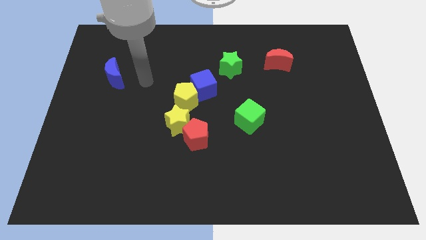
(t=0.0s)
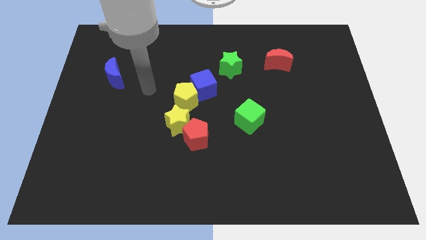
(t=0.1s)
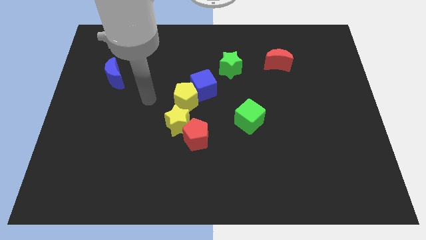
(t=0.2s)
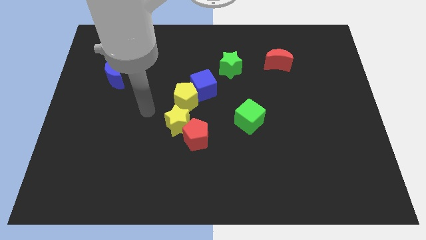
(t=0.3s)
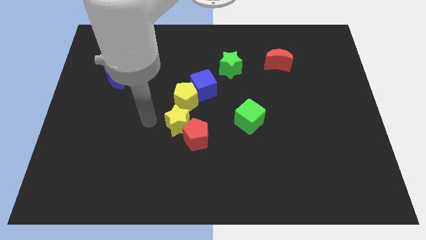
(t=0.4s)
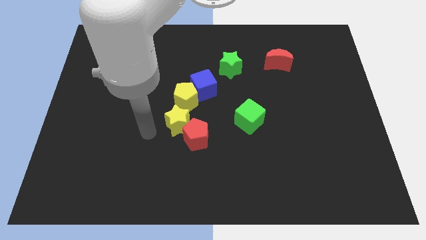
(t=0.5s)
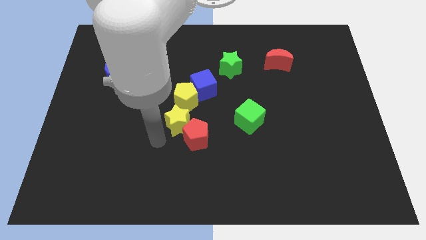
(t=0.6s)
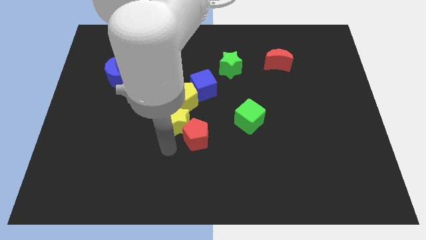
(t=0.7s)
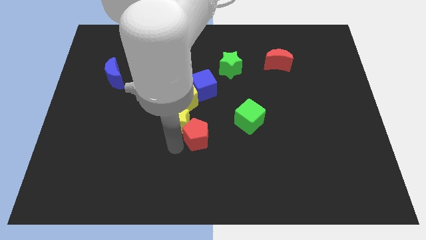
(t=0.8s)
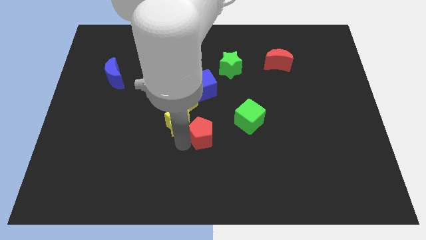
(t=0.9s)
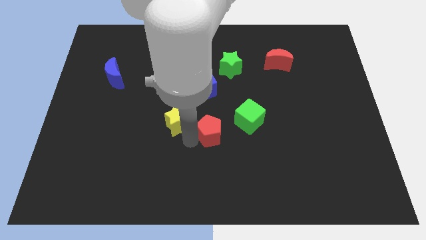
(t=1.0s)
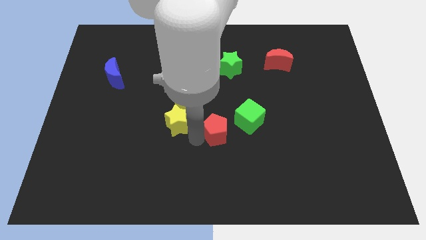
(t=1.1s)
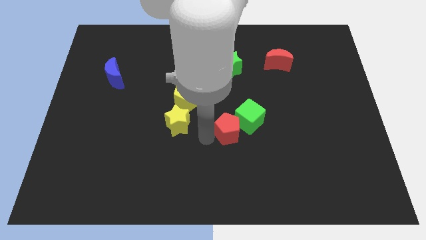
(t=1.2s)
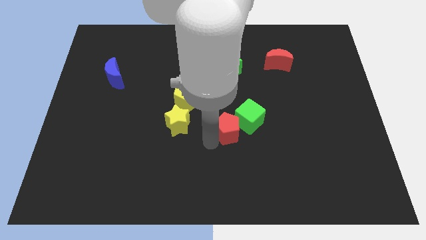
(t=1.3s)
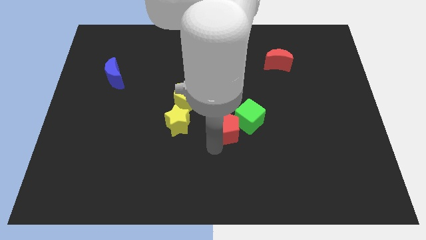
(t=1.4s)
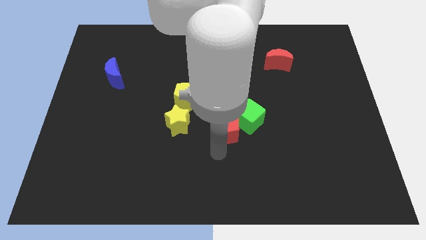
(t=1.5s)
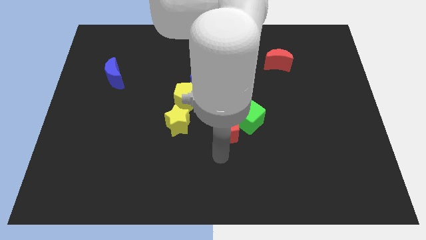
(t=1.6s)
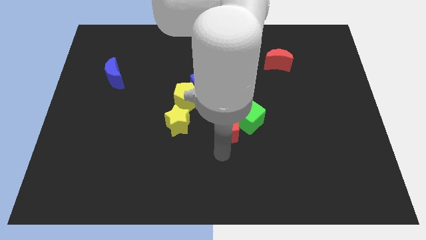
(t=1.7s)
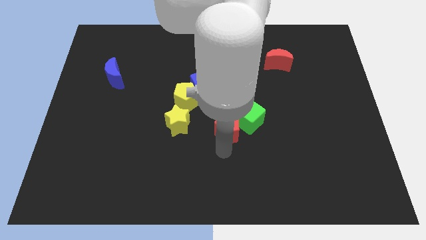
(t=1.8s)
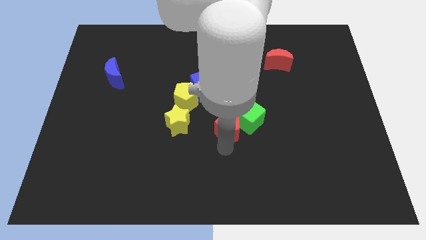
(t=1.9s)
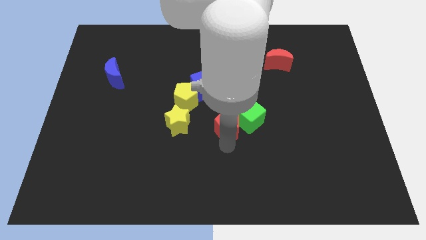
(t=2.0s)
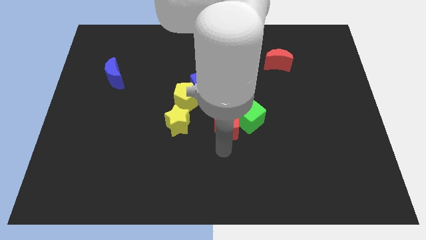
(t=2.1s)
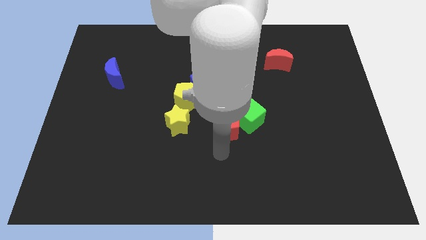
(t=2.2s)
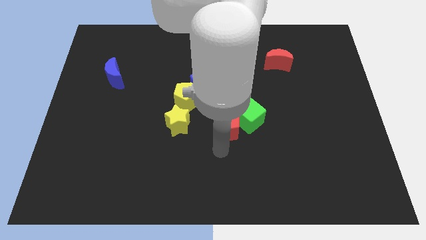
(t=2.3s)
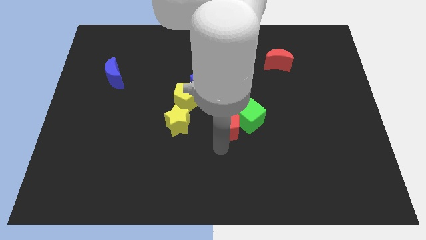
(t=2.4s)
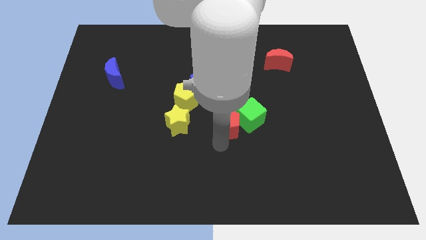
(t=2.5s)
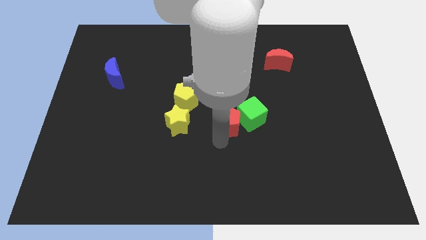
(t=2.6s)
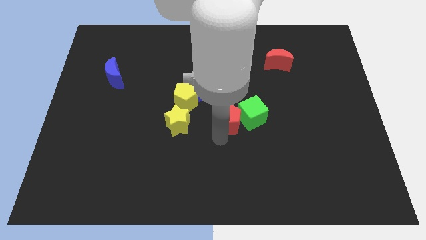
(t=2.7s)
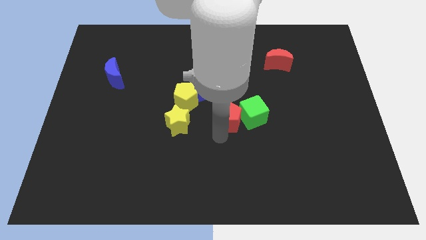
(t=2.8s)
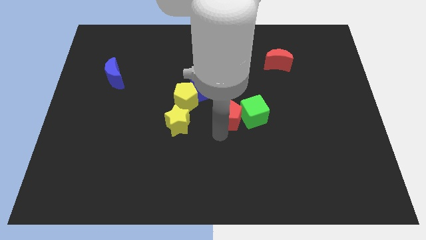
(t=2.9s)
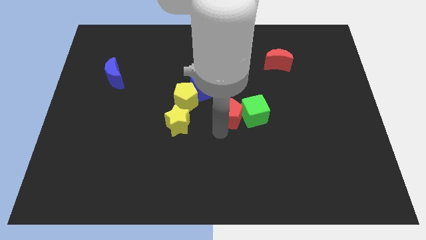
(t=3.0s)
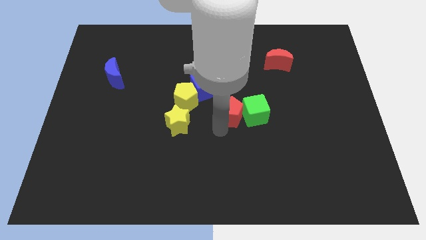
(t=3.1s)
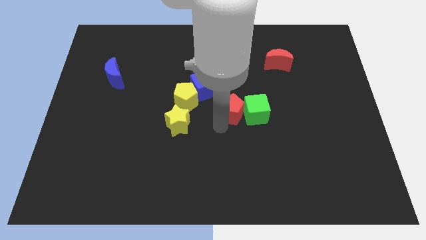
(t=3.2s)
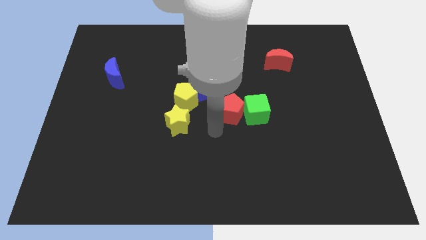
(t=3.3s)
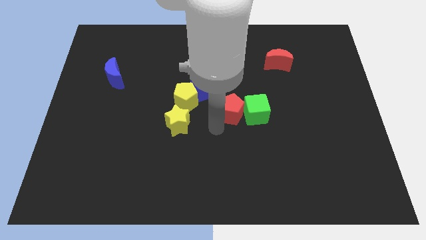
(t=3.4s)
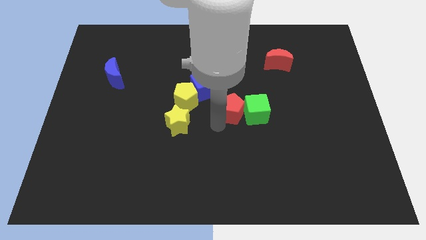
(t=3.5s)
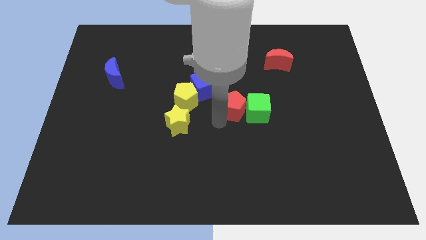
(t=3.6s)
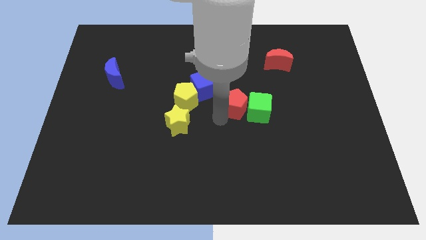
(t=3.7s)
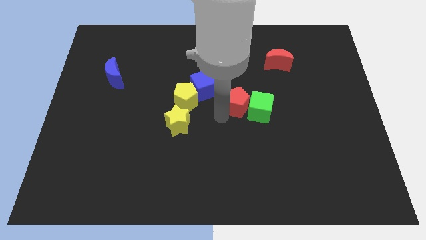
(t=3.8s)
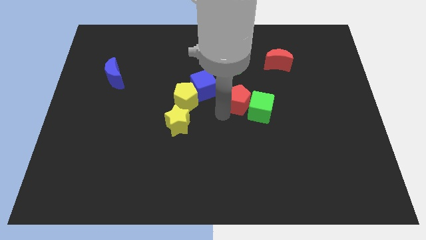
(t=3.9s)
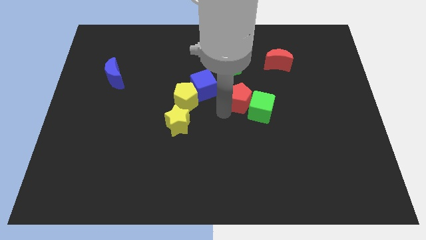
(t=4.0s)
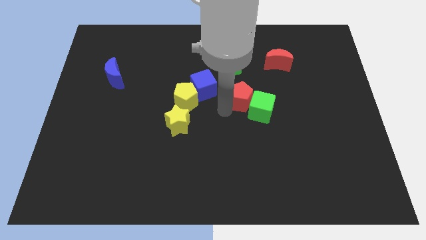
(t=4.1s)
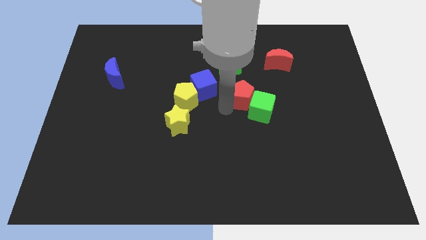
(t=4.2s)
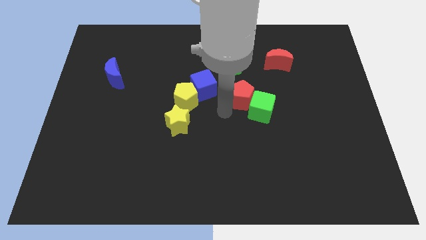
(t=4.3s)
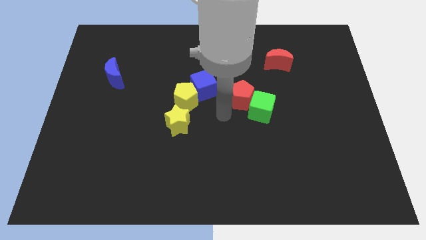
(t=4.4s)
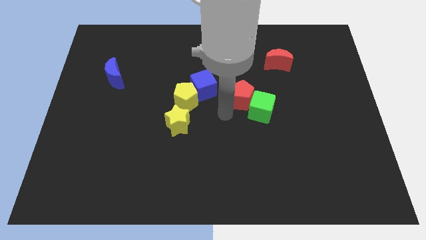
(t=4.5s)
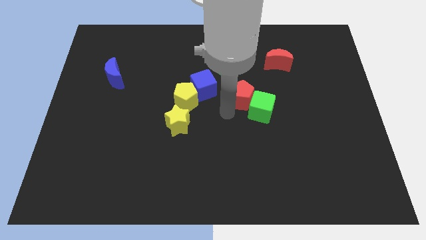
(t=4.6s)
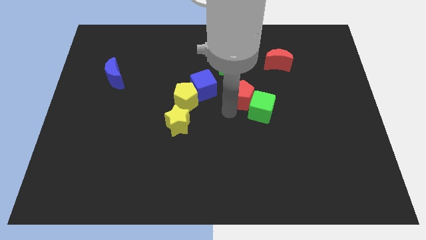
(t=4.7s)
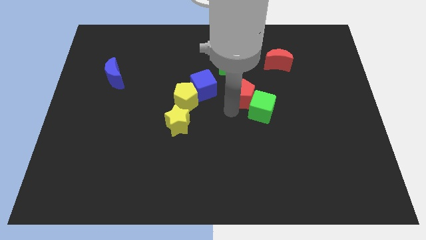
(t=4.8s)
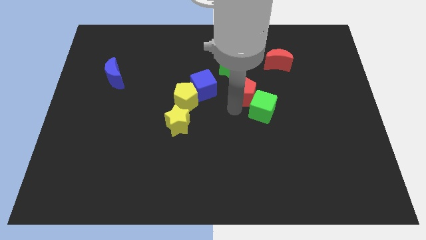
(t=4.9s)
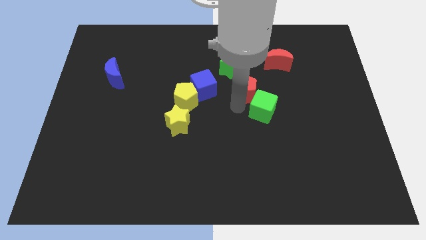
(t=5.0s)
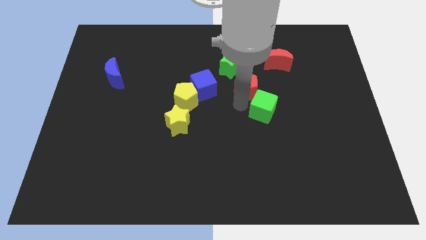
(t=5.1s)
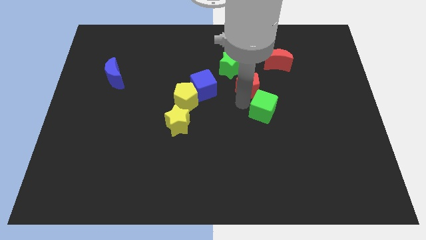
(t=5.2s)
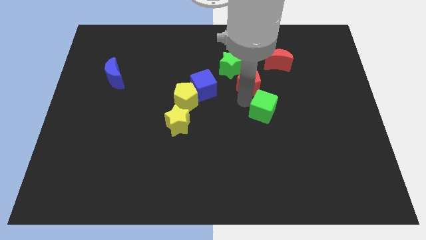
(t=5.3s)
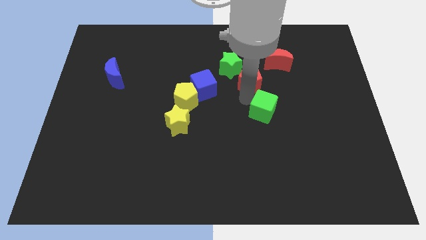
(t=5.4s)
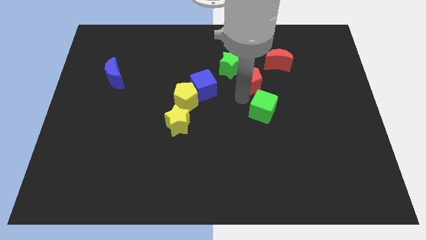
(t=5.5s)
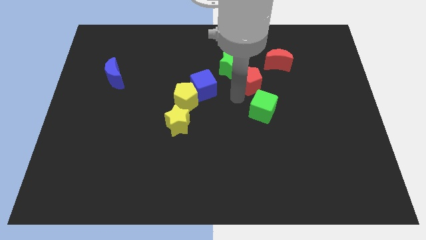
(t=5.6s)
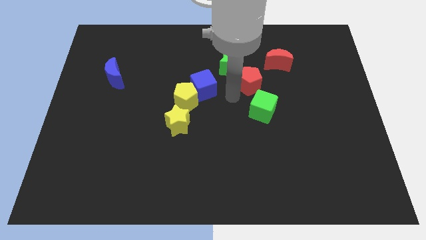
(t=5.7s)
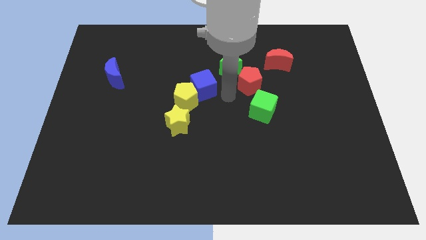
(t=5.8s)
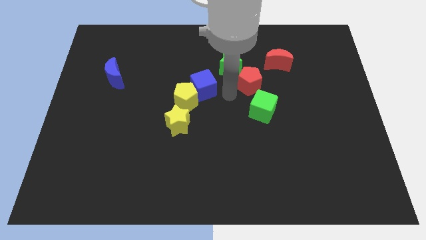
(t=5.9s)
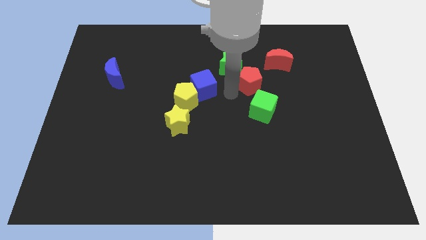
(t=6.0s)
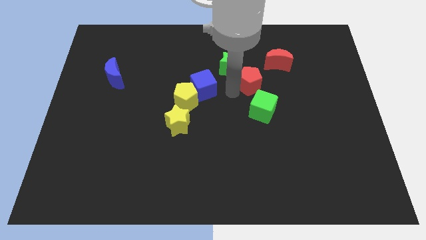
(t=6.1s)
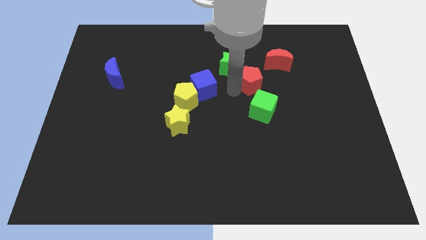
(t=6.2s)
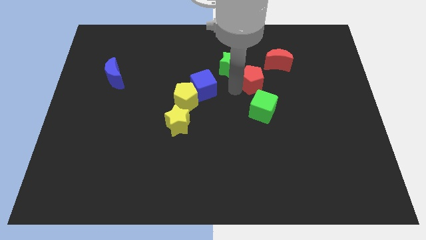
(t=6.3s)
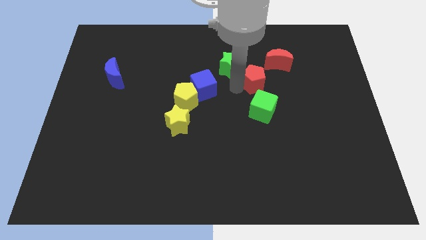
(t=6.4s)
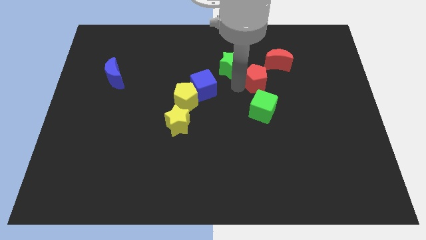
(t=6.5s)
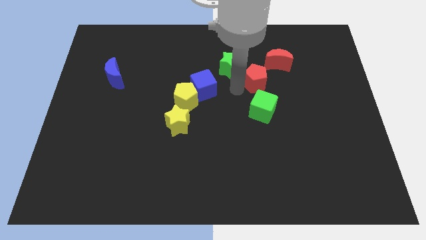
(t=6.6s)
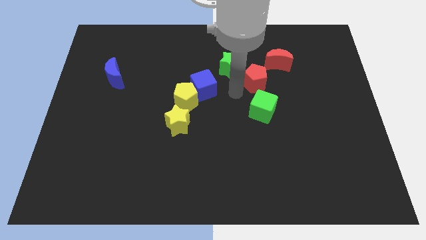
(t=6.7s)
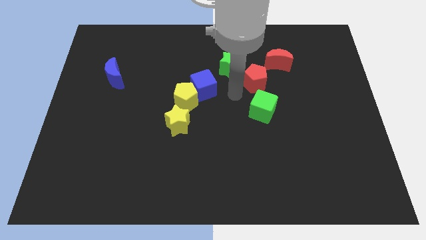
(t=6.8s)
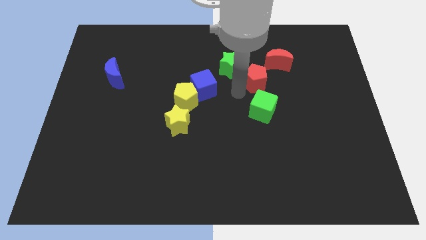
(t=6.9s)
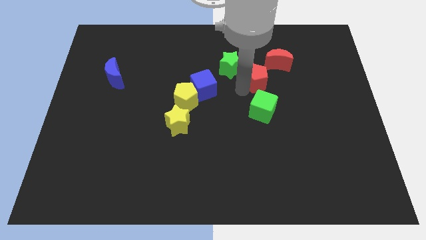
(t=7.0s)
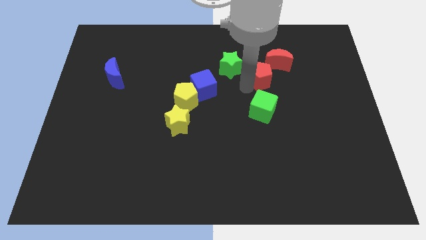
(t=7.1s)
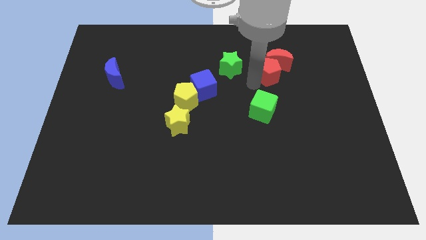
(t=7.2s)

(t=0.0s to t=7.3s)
push the red pentagon to the red moon
